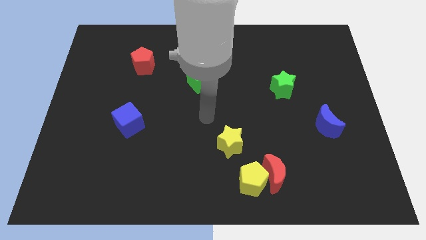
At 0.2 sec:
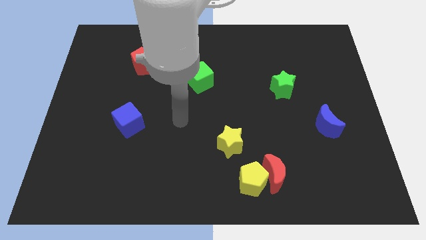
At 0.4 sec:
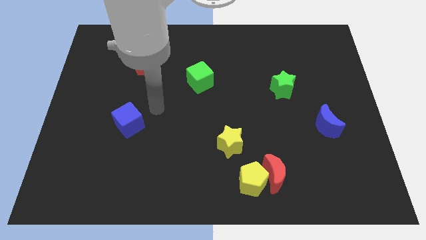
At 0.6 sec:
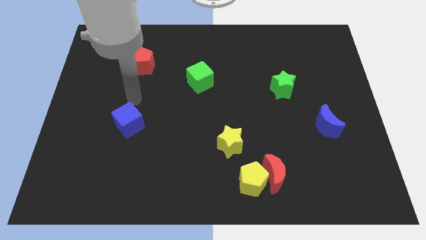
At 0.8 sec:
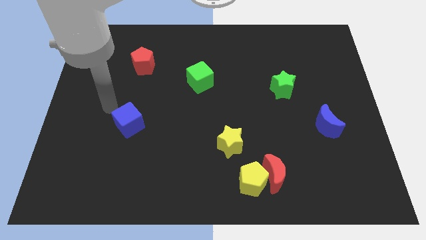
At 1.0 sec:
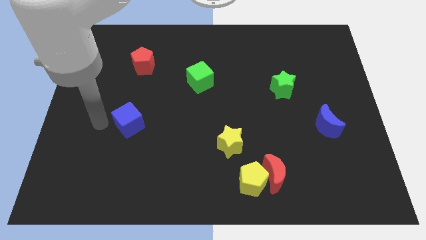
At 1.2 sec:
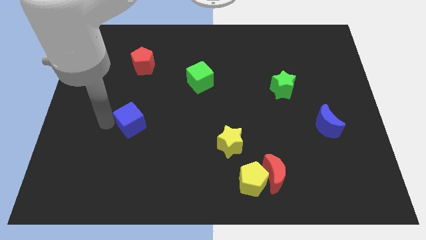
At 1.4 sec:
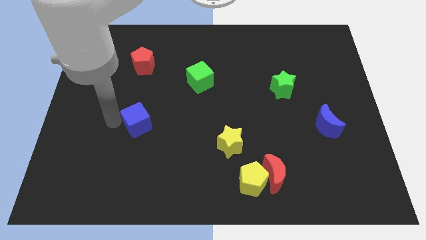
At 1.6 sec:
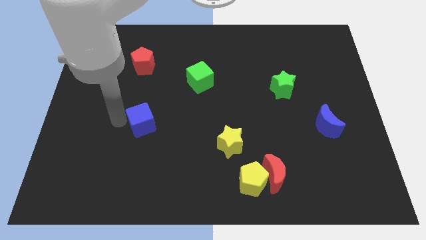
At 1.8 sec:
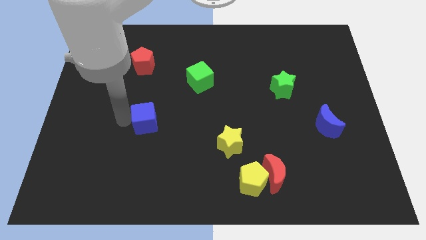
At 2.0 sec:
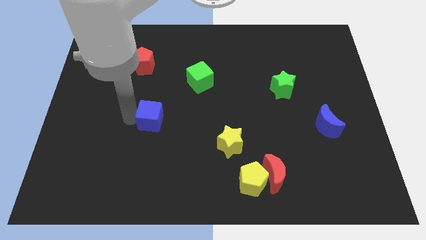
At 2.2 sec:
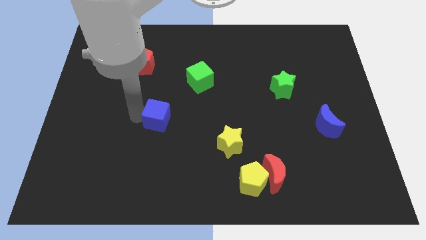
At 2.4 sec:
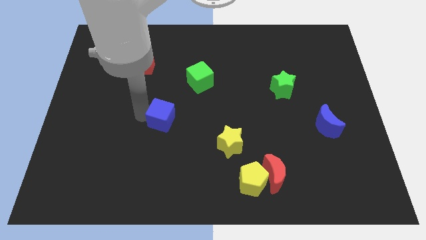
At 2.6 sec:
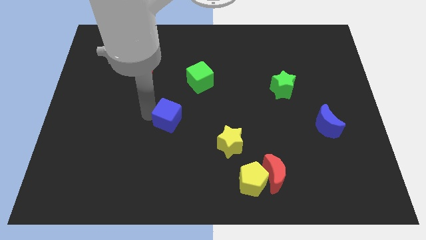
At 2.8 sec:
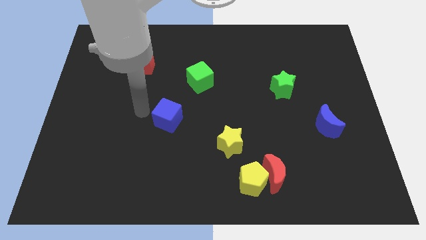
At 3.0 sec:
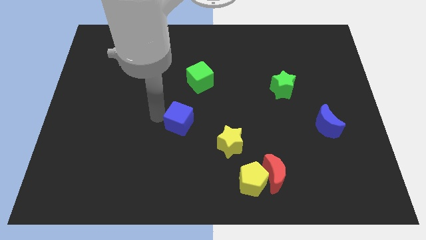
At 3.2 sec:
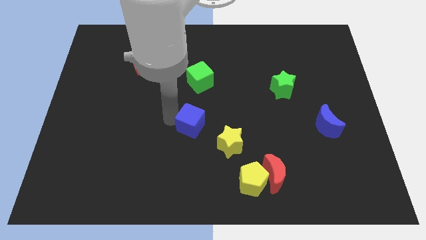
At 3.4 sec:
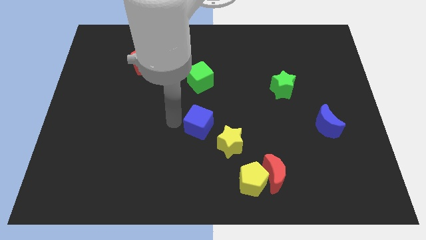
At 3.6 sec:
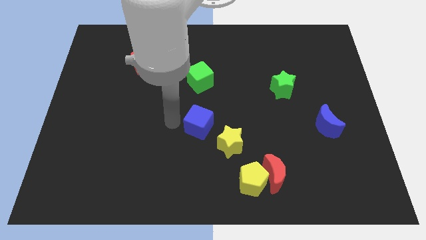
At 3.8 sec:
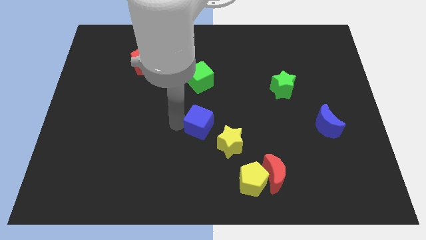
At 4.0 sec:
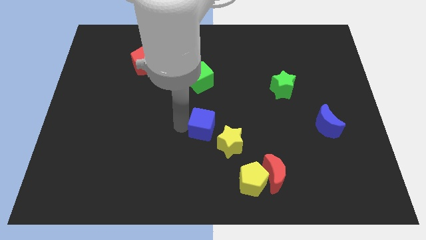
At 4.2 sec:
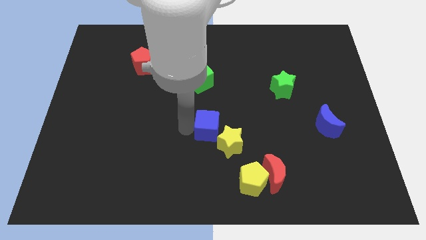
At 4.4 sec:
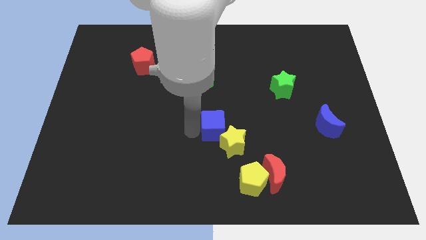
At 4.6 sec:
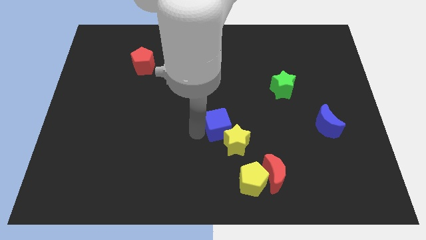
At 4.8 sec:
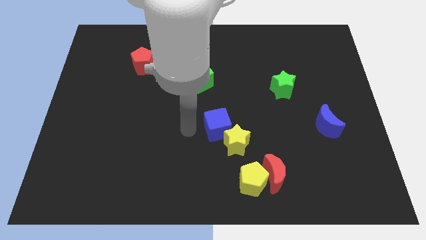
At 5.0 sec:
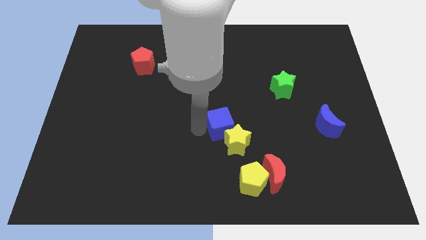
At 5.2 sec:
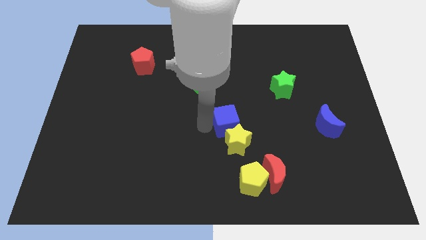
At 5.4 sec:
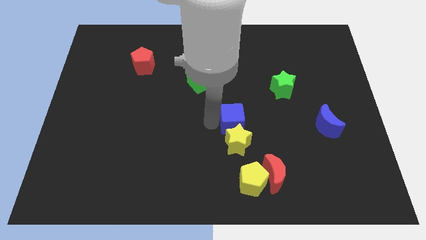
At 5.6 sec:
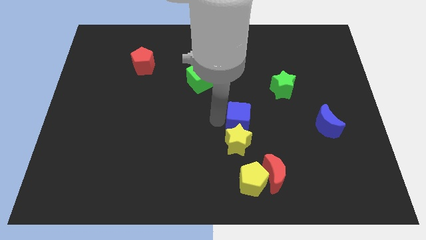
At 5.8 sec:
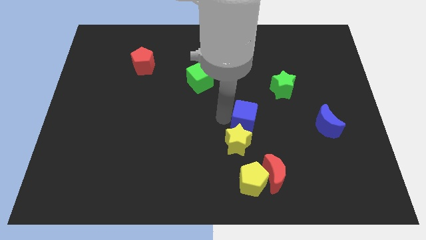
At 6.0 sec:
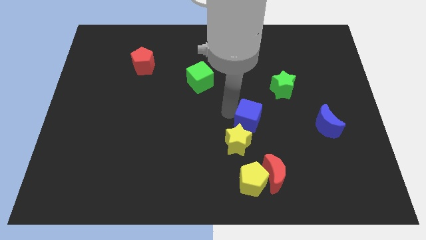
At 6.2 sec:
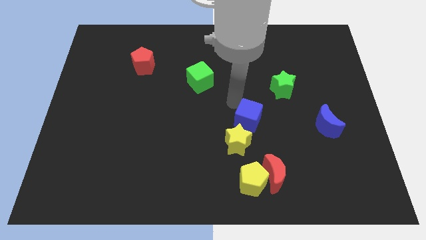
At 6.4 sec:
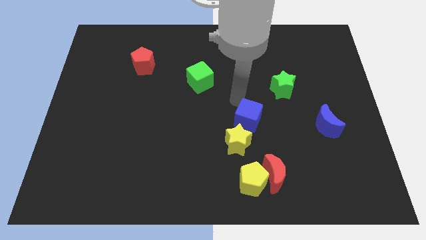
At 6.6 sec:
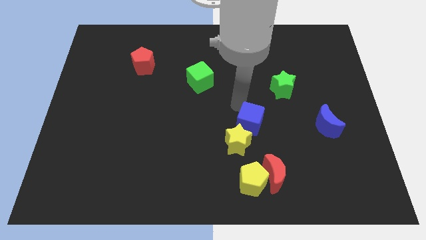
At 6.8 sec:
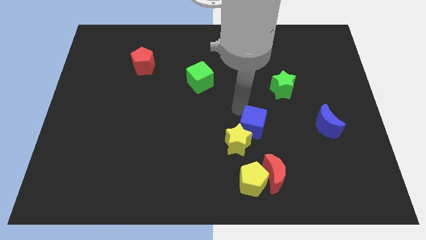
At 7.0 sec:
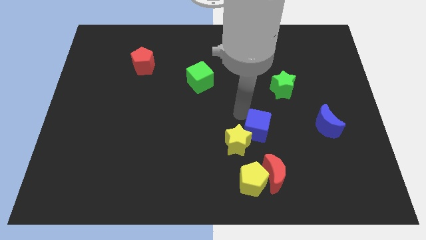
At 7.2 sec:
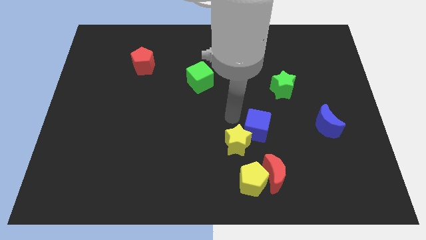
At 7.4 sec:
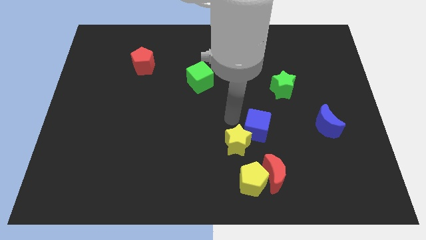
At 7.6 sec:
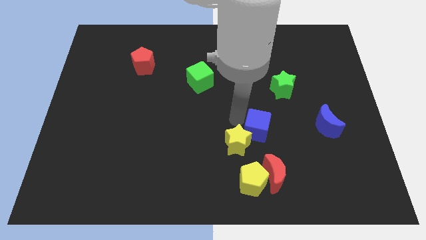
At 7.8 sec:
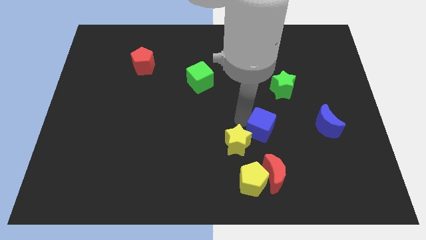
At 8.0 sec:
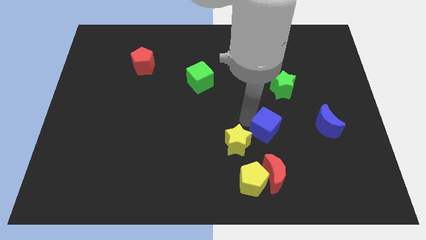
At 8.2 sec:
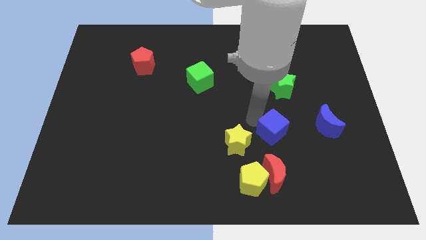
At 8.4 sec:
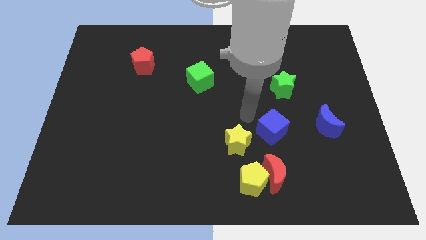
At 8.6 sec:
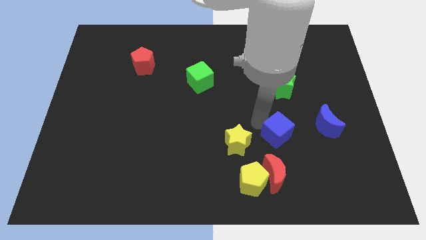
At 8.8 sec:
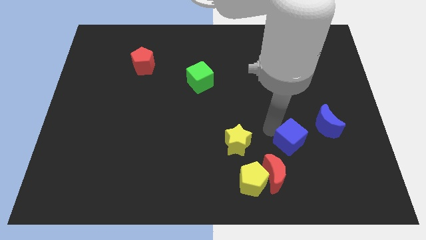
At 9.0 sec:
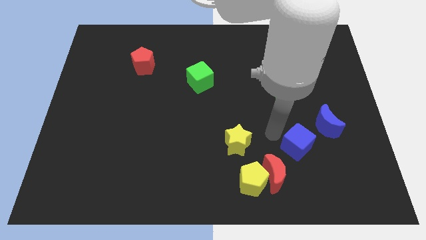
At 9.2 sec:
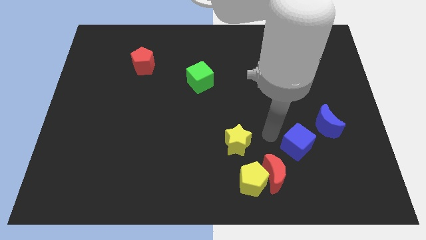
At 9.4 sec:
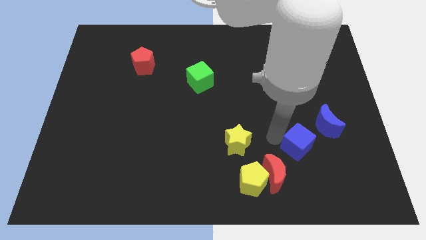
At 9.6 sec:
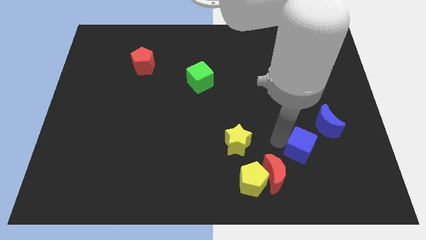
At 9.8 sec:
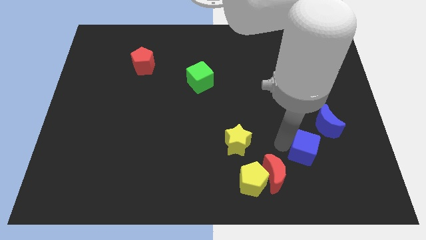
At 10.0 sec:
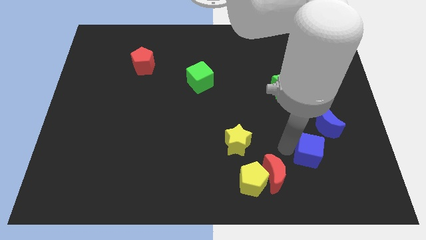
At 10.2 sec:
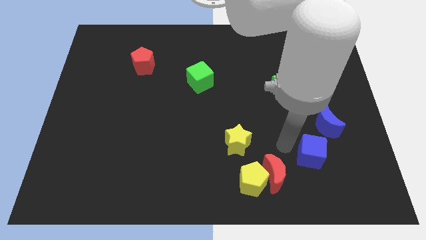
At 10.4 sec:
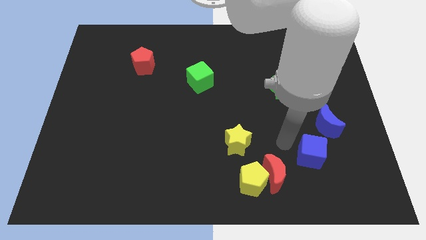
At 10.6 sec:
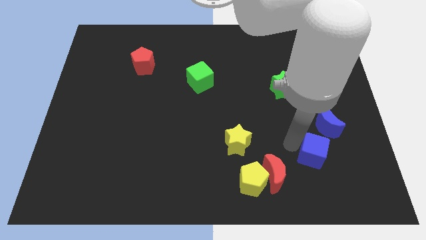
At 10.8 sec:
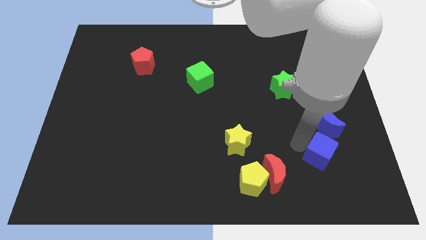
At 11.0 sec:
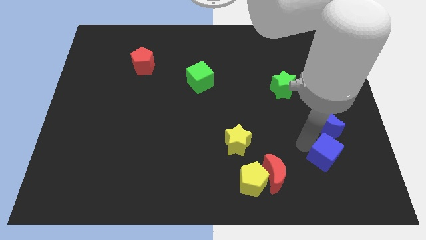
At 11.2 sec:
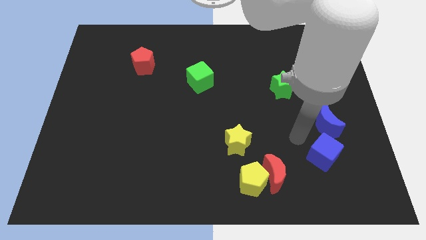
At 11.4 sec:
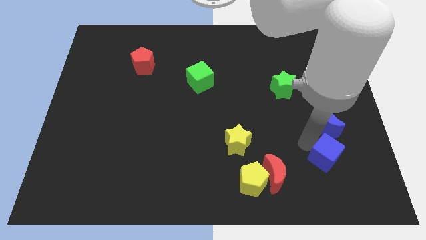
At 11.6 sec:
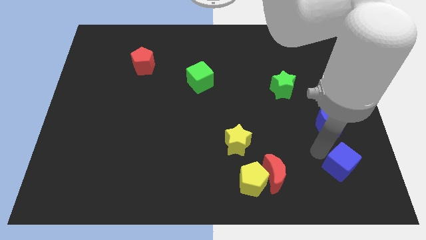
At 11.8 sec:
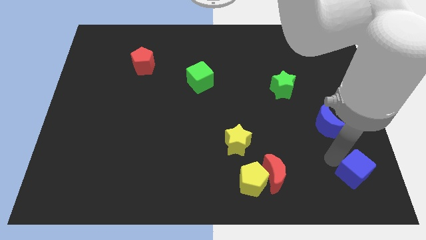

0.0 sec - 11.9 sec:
move the blue cube to the bottom right

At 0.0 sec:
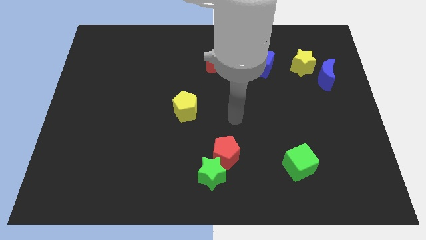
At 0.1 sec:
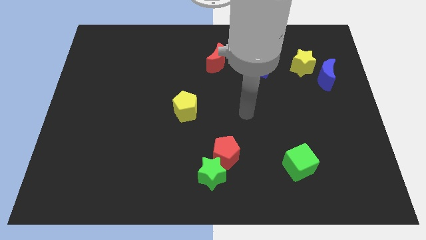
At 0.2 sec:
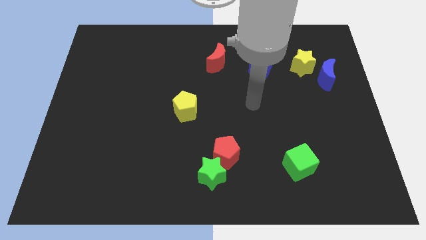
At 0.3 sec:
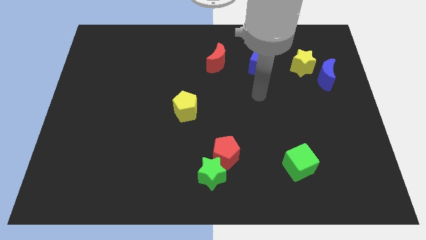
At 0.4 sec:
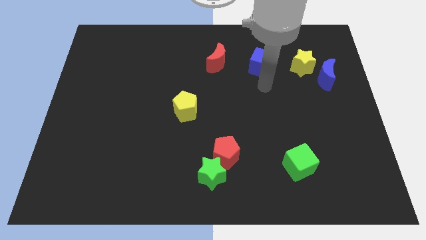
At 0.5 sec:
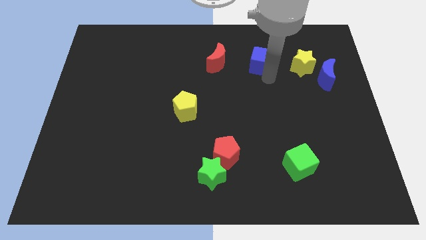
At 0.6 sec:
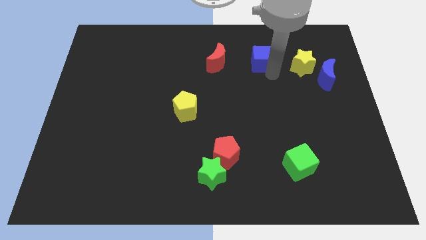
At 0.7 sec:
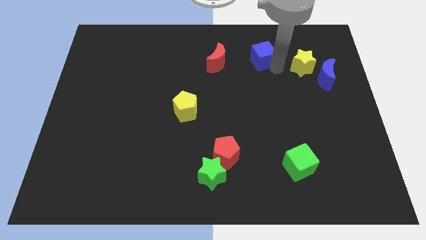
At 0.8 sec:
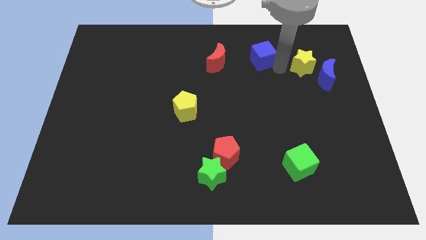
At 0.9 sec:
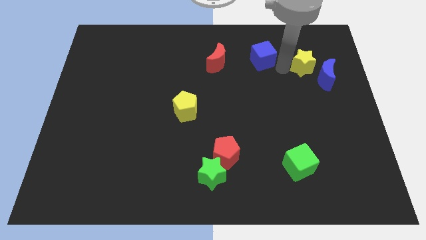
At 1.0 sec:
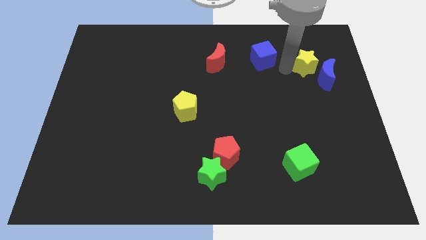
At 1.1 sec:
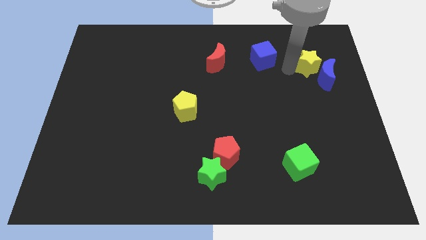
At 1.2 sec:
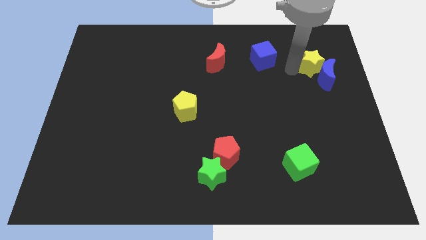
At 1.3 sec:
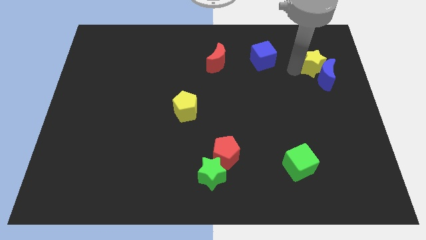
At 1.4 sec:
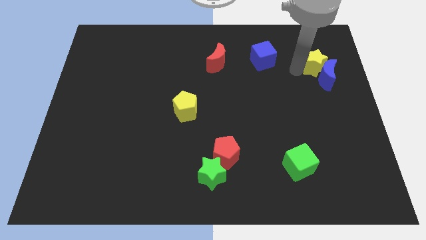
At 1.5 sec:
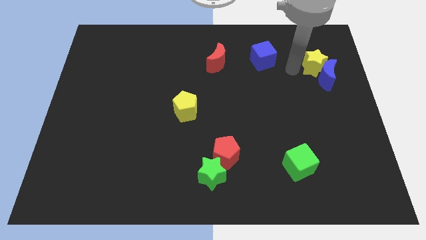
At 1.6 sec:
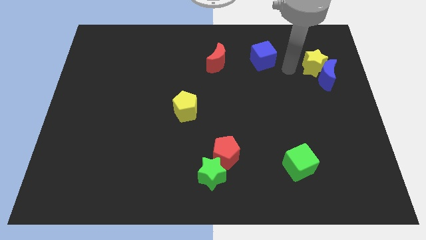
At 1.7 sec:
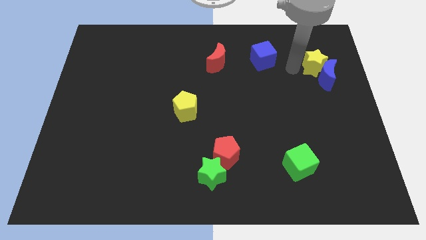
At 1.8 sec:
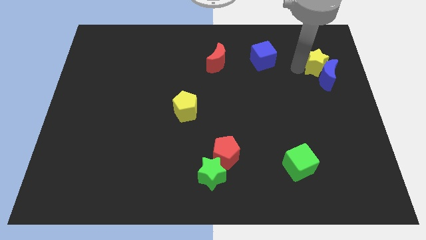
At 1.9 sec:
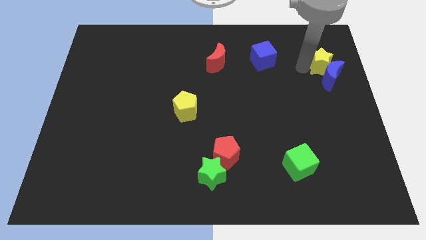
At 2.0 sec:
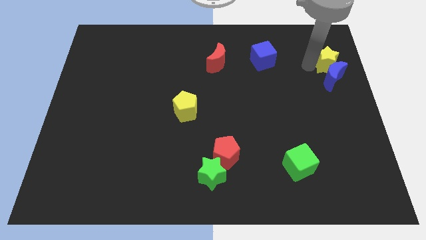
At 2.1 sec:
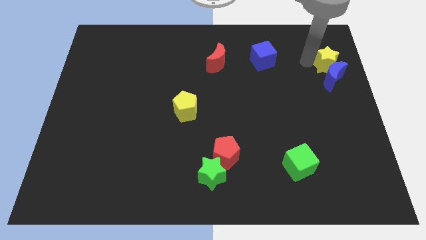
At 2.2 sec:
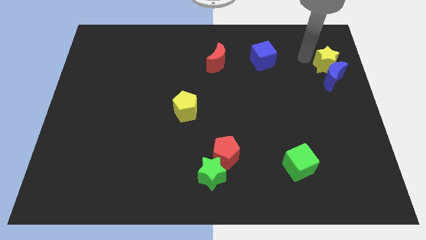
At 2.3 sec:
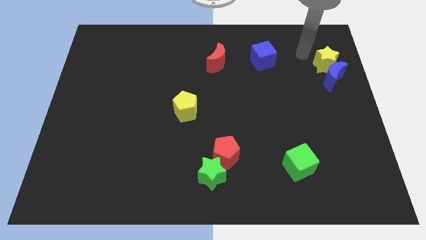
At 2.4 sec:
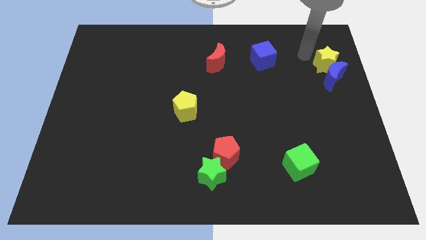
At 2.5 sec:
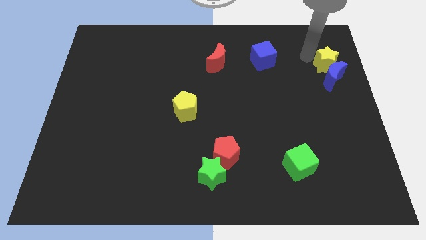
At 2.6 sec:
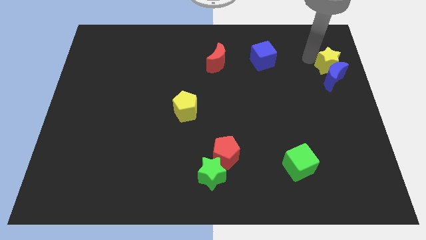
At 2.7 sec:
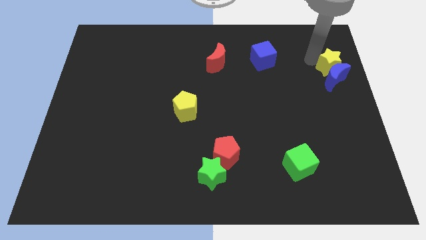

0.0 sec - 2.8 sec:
put the yellow star to the center right
